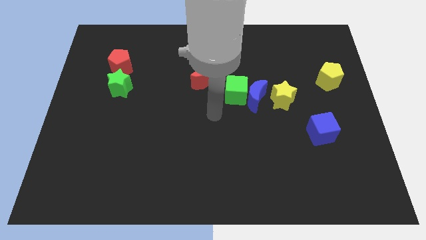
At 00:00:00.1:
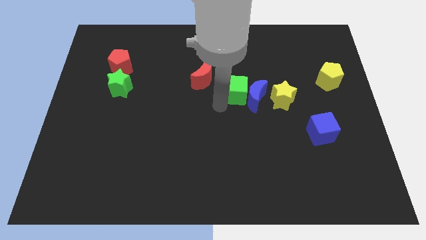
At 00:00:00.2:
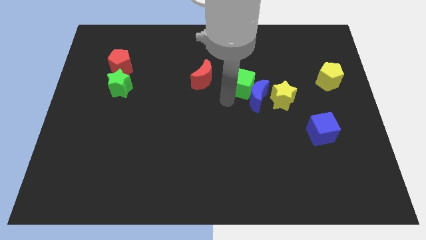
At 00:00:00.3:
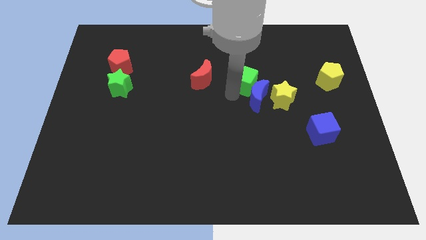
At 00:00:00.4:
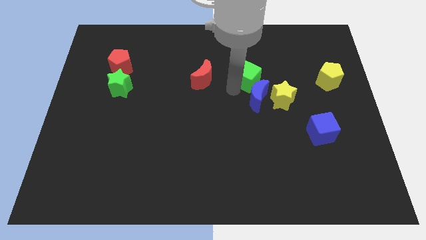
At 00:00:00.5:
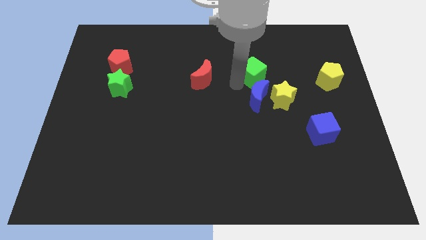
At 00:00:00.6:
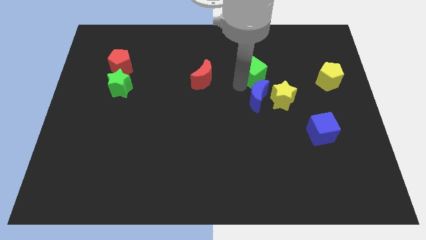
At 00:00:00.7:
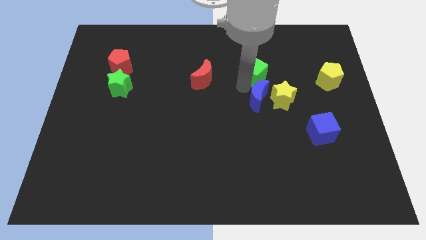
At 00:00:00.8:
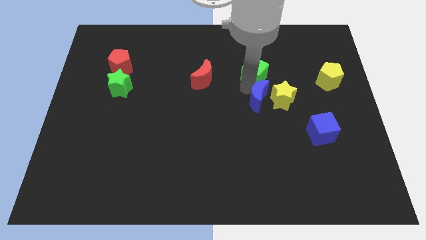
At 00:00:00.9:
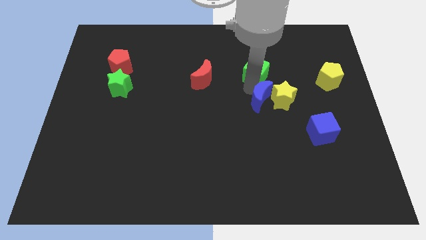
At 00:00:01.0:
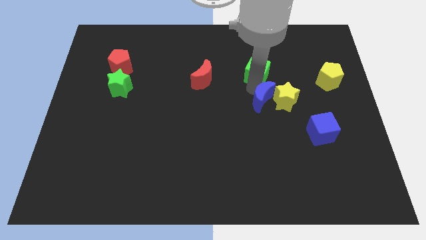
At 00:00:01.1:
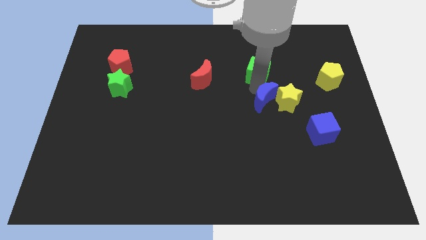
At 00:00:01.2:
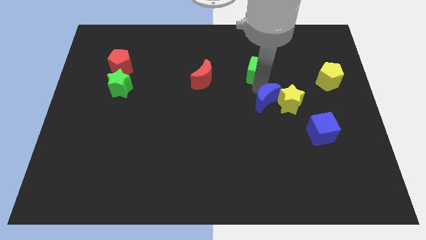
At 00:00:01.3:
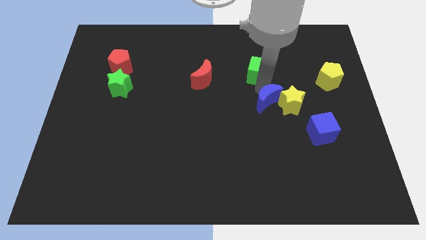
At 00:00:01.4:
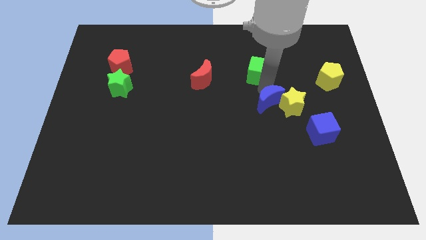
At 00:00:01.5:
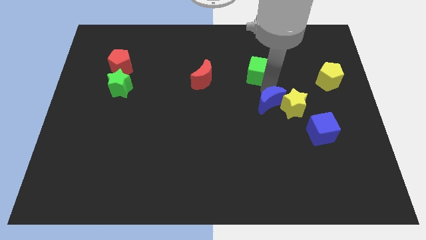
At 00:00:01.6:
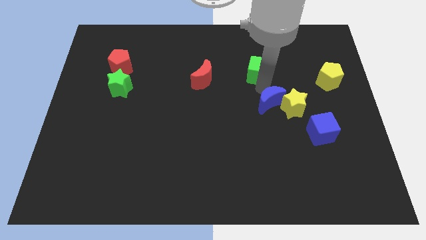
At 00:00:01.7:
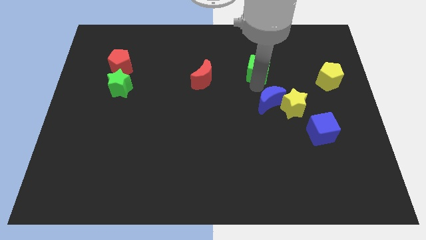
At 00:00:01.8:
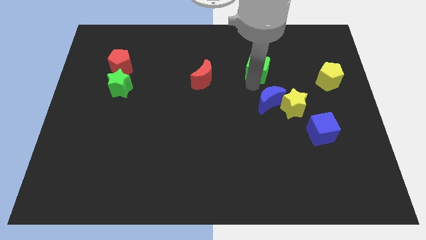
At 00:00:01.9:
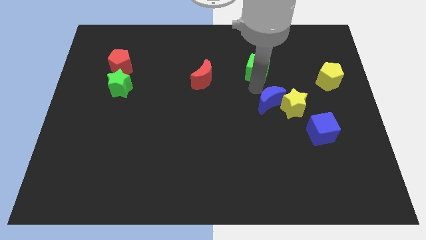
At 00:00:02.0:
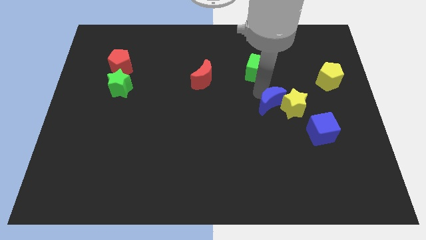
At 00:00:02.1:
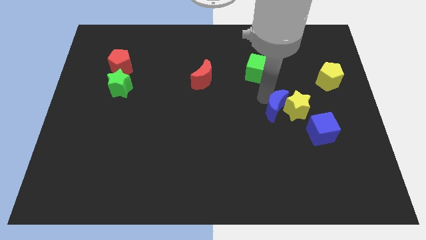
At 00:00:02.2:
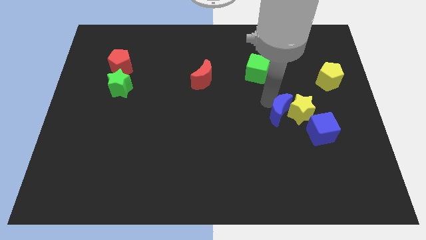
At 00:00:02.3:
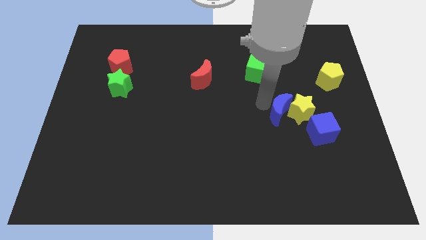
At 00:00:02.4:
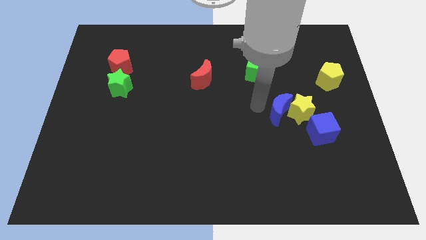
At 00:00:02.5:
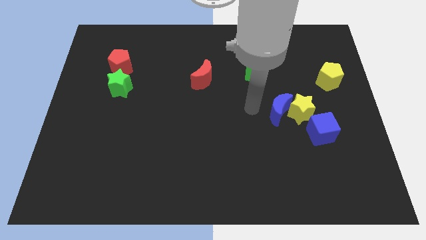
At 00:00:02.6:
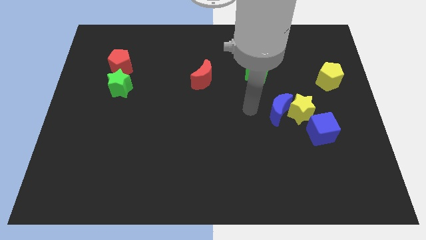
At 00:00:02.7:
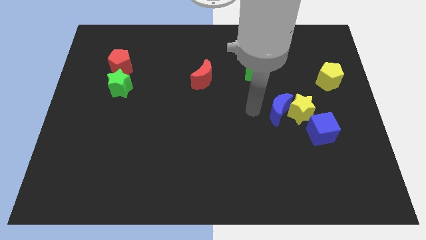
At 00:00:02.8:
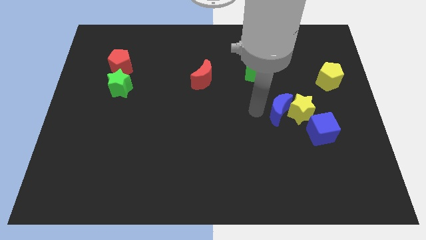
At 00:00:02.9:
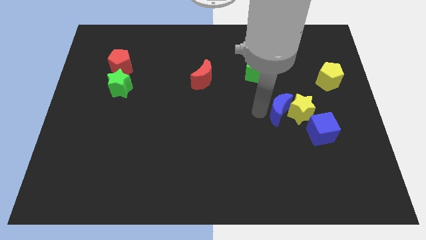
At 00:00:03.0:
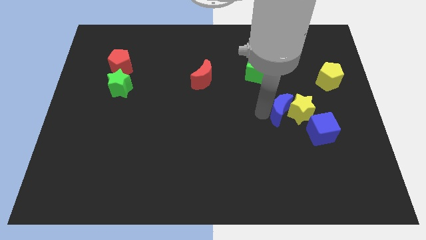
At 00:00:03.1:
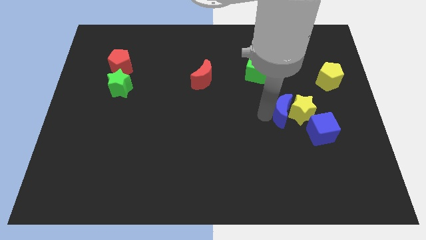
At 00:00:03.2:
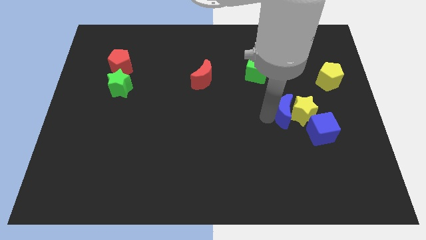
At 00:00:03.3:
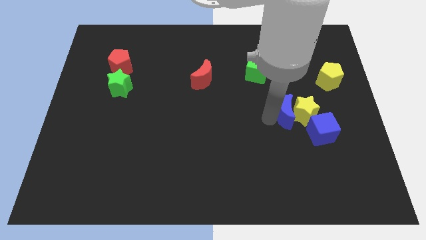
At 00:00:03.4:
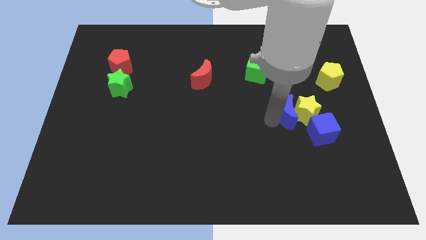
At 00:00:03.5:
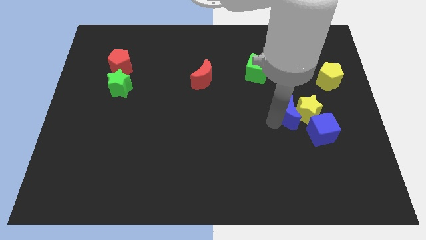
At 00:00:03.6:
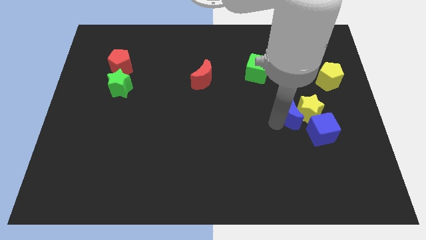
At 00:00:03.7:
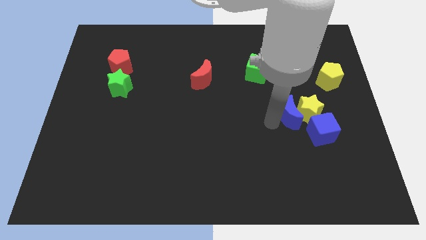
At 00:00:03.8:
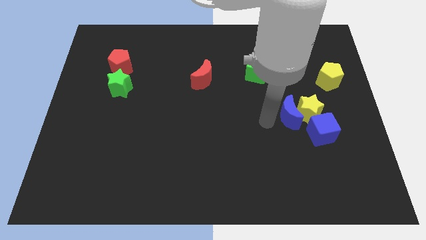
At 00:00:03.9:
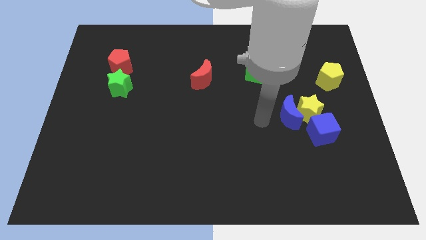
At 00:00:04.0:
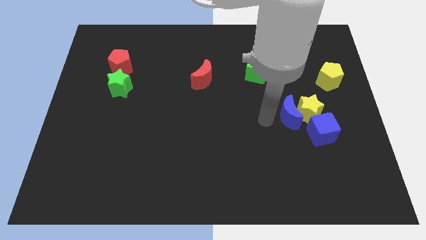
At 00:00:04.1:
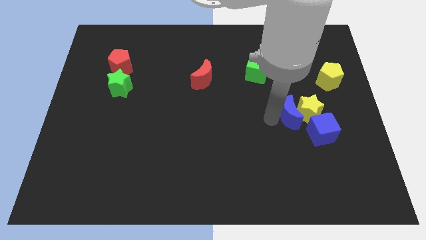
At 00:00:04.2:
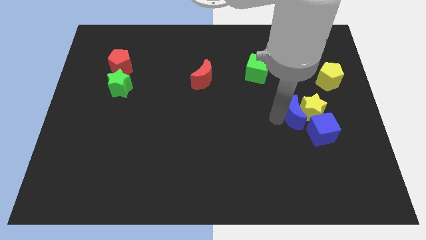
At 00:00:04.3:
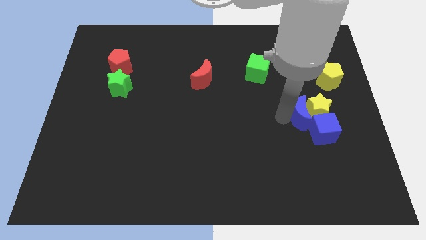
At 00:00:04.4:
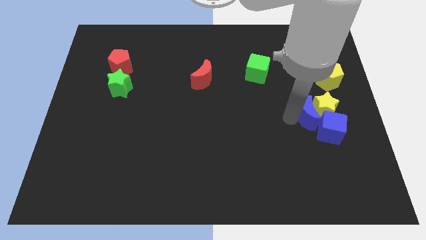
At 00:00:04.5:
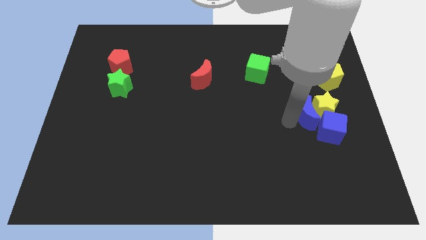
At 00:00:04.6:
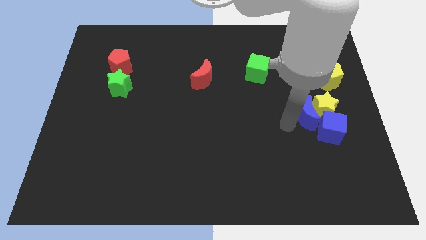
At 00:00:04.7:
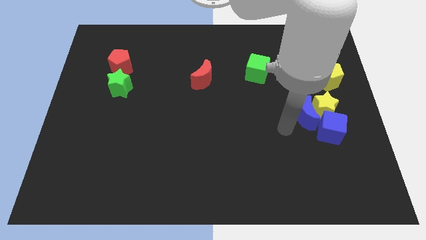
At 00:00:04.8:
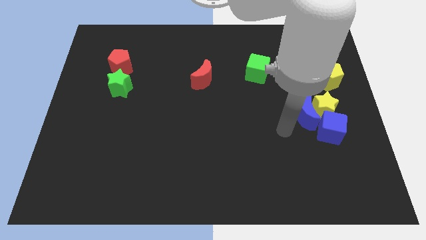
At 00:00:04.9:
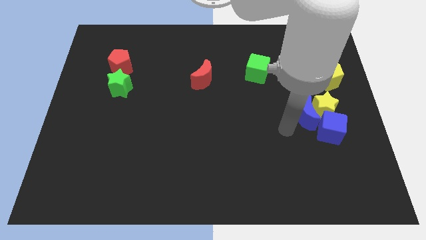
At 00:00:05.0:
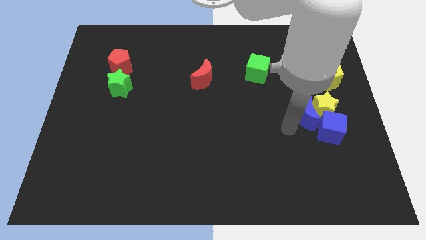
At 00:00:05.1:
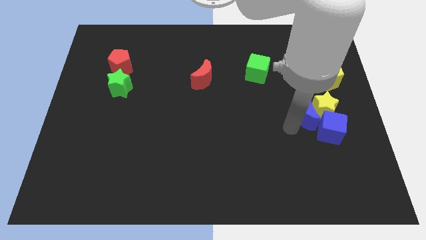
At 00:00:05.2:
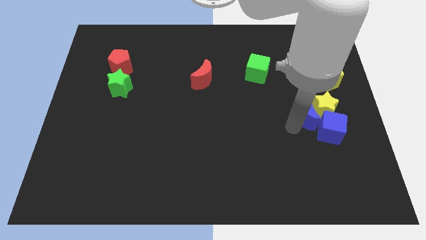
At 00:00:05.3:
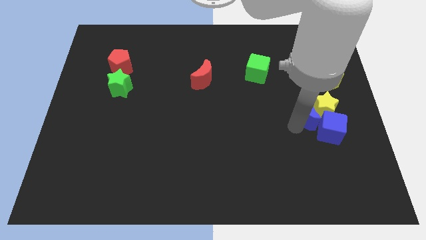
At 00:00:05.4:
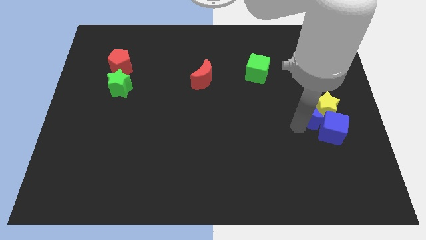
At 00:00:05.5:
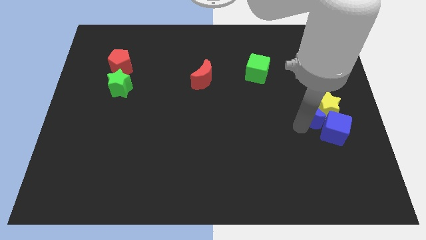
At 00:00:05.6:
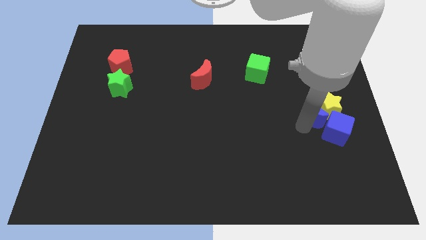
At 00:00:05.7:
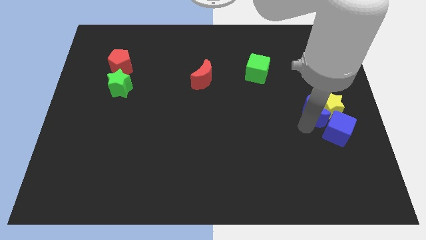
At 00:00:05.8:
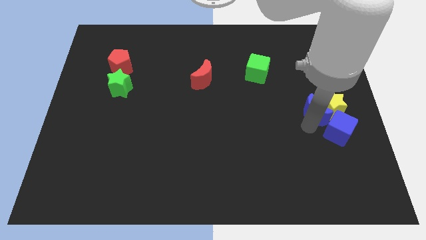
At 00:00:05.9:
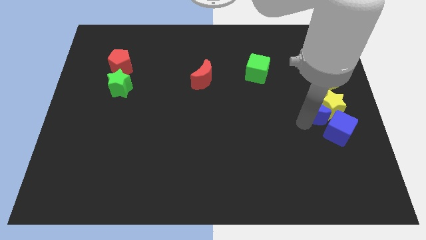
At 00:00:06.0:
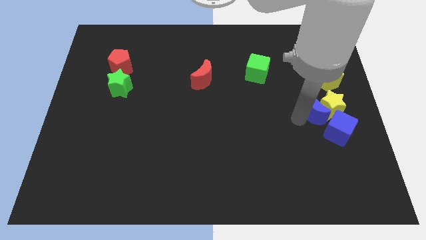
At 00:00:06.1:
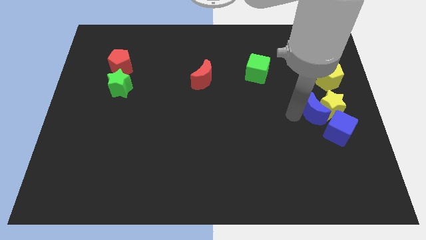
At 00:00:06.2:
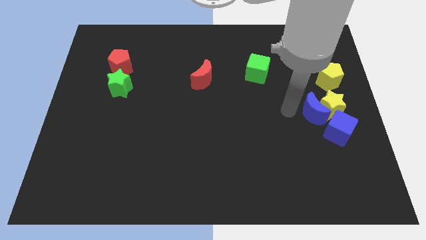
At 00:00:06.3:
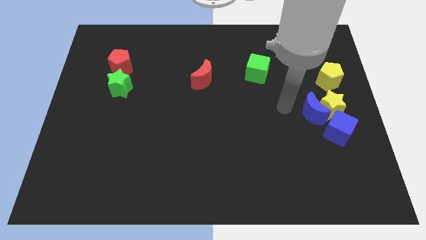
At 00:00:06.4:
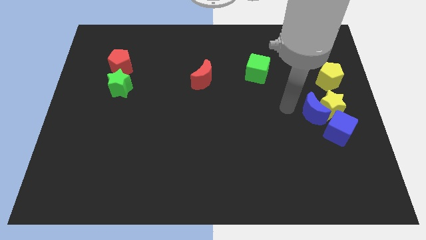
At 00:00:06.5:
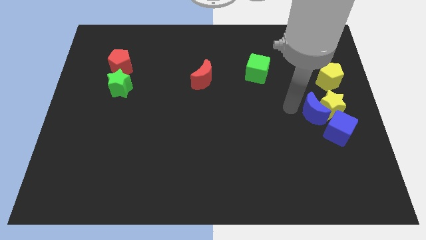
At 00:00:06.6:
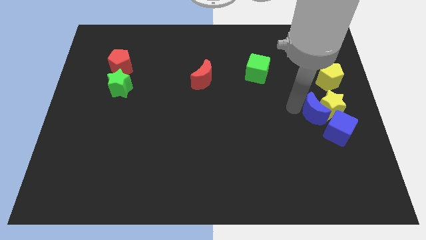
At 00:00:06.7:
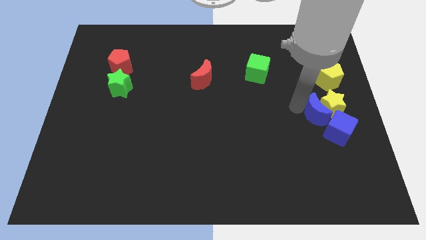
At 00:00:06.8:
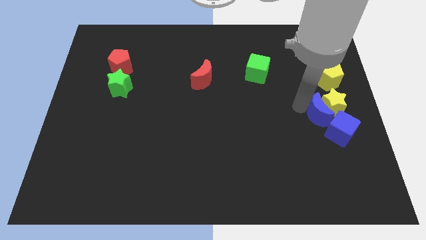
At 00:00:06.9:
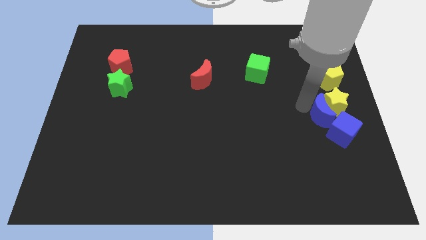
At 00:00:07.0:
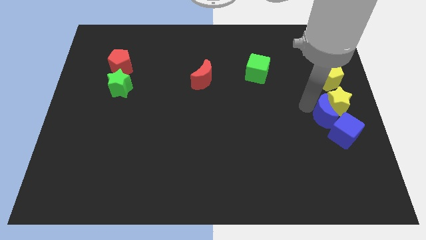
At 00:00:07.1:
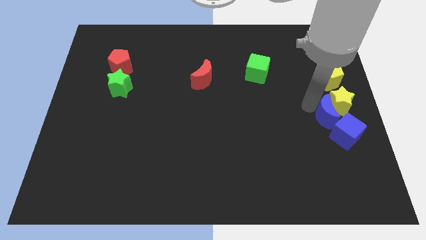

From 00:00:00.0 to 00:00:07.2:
push the blue moon to the right side

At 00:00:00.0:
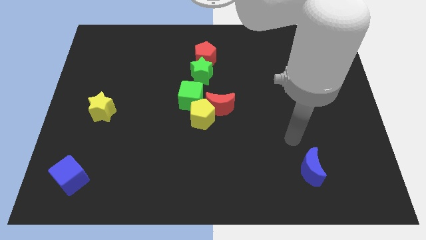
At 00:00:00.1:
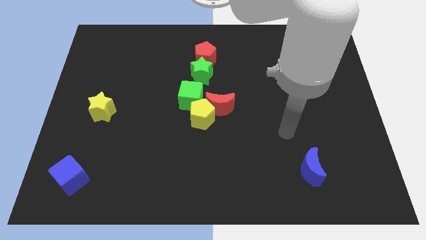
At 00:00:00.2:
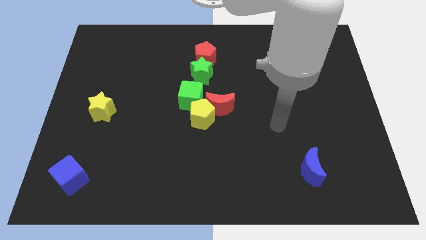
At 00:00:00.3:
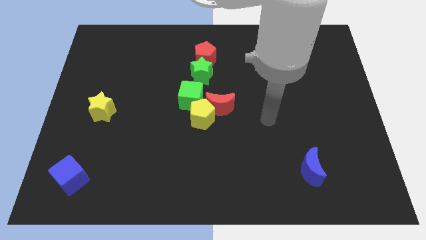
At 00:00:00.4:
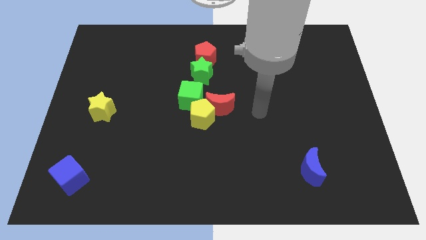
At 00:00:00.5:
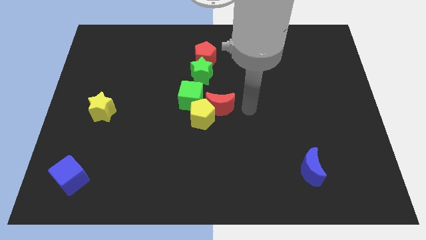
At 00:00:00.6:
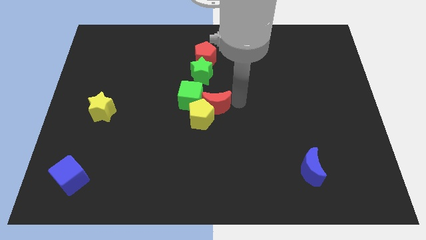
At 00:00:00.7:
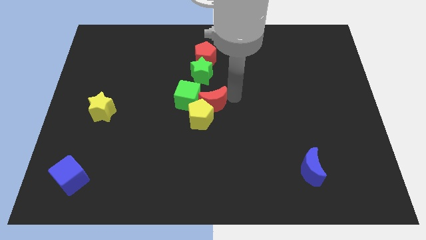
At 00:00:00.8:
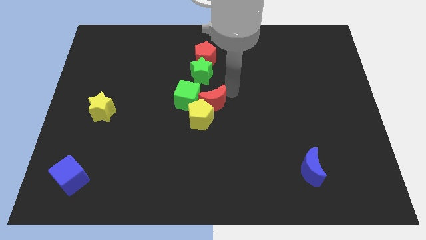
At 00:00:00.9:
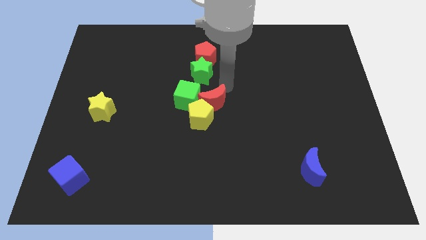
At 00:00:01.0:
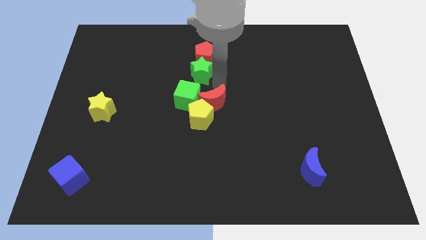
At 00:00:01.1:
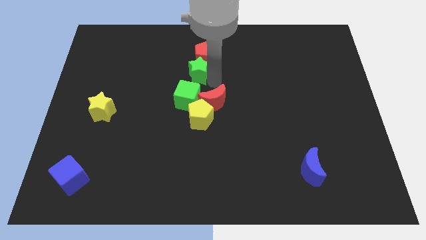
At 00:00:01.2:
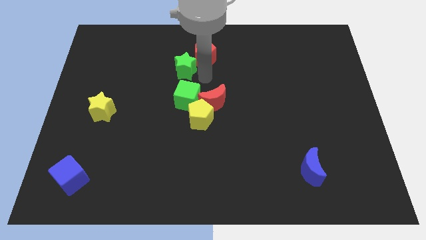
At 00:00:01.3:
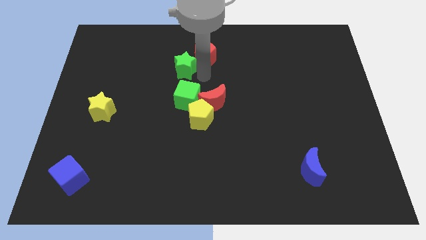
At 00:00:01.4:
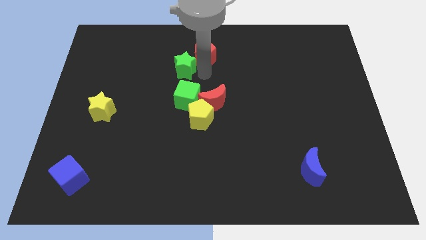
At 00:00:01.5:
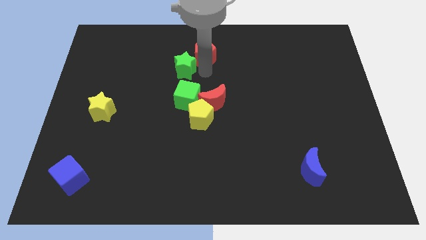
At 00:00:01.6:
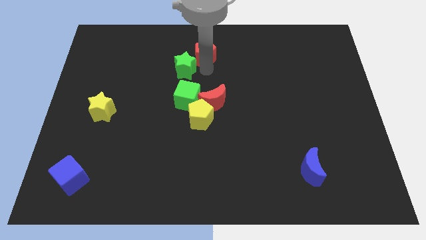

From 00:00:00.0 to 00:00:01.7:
push the red pentagon to the towards your base
